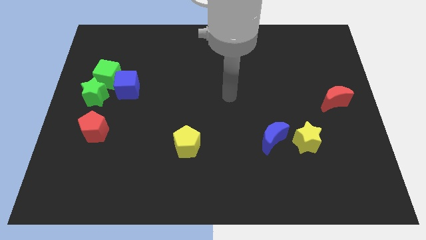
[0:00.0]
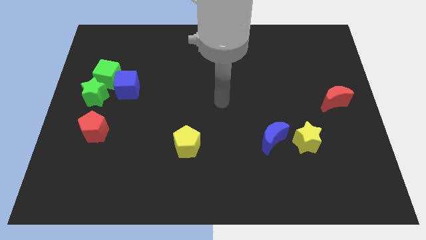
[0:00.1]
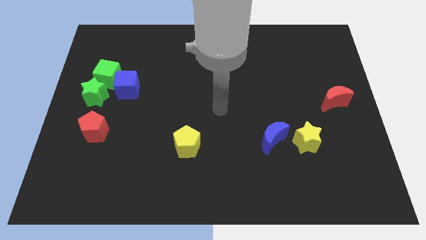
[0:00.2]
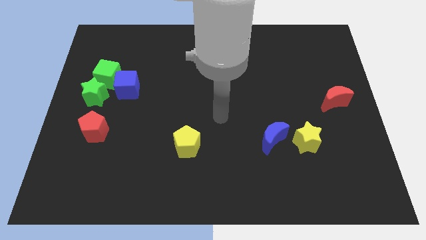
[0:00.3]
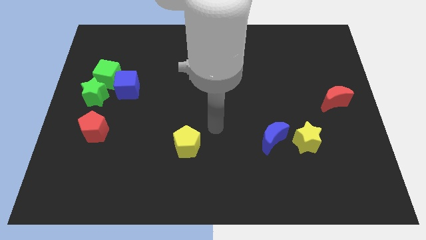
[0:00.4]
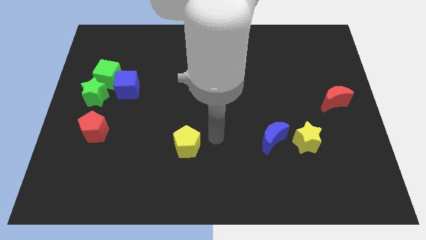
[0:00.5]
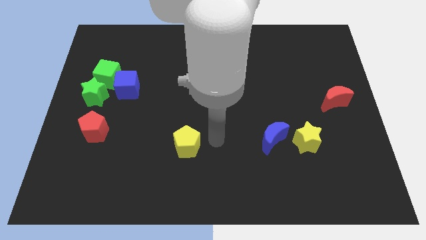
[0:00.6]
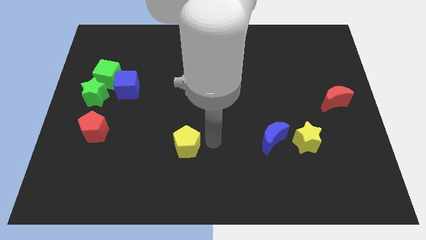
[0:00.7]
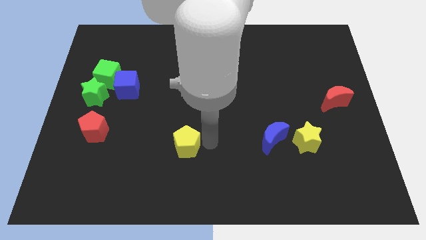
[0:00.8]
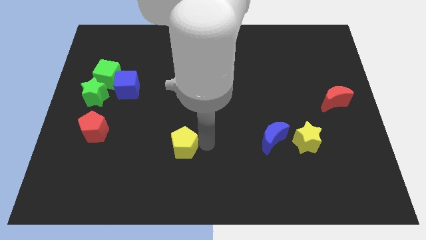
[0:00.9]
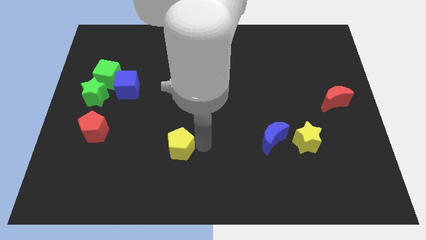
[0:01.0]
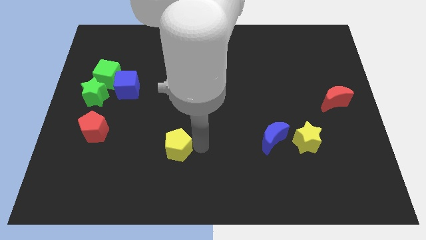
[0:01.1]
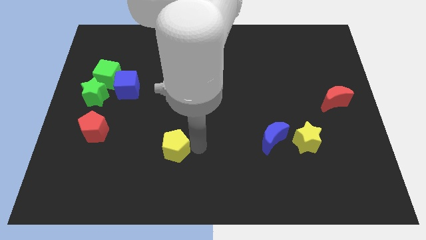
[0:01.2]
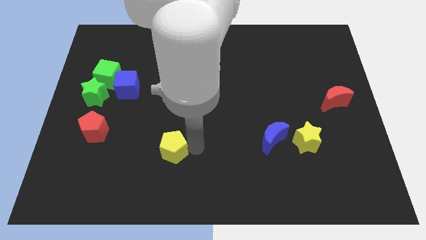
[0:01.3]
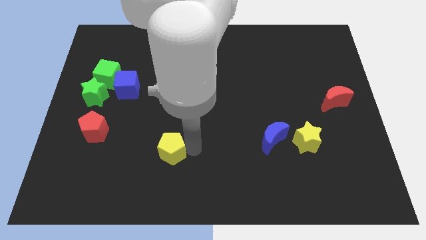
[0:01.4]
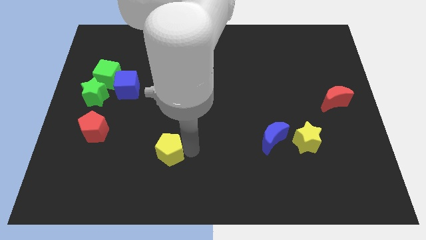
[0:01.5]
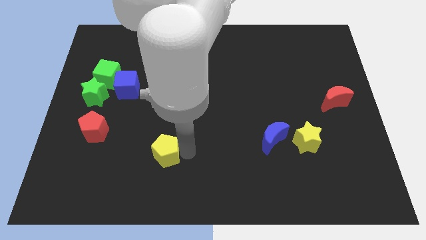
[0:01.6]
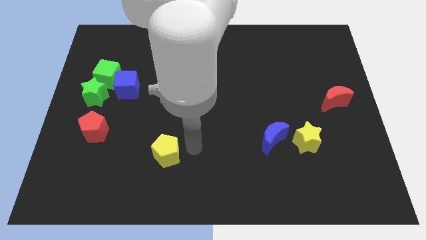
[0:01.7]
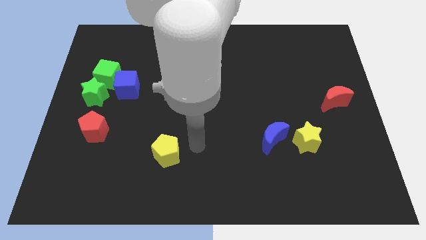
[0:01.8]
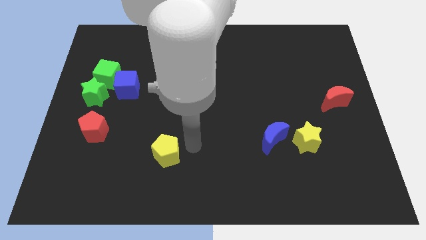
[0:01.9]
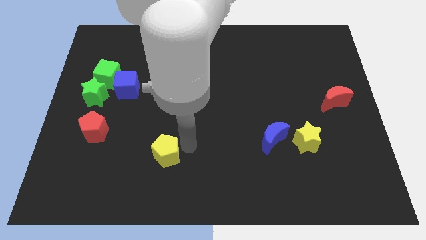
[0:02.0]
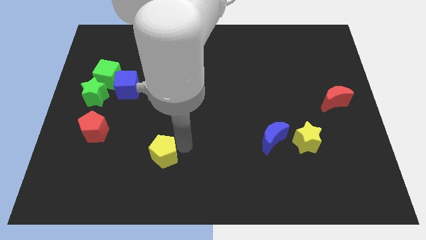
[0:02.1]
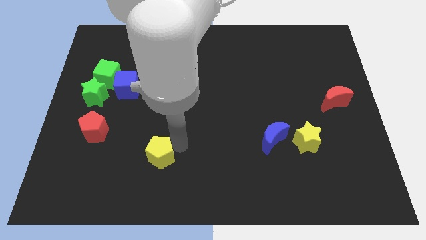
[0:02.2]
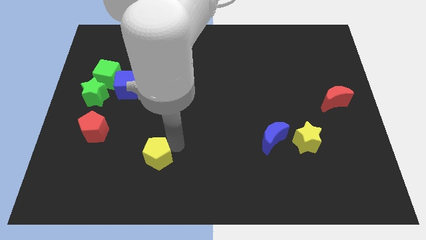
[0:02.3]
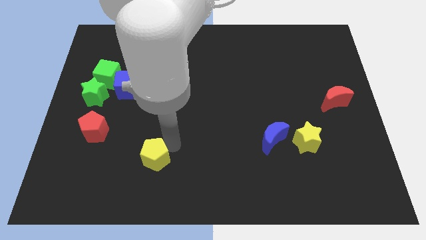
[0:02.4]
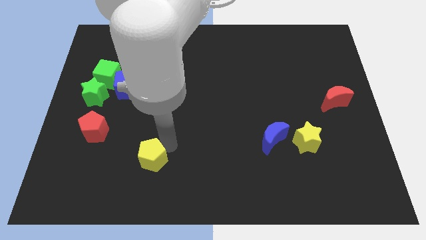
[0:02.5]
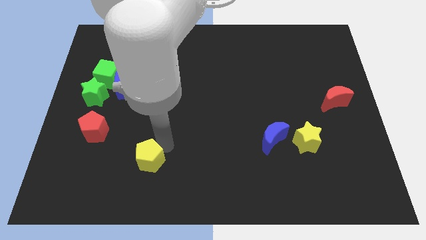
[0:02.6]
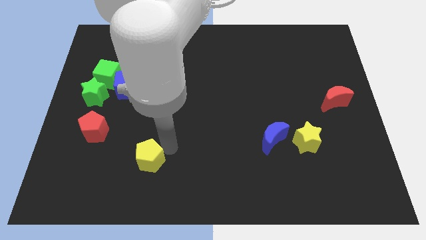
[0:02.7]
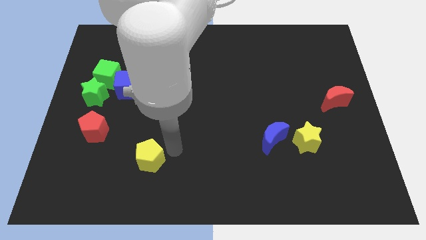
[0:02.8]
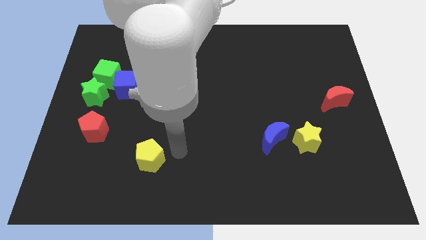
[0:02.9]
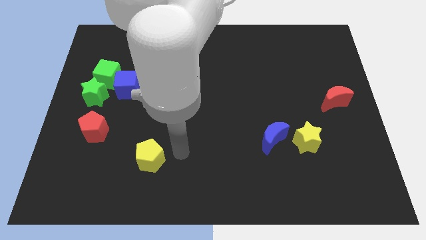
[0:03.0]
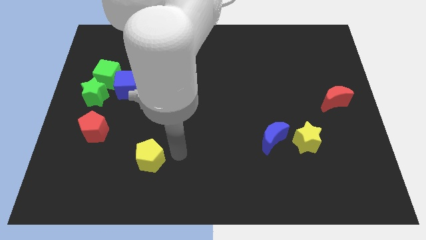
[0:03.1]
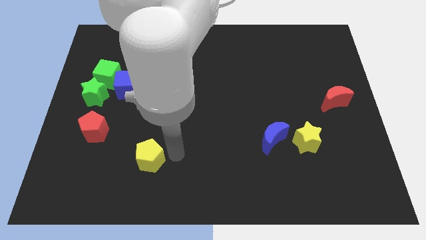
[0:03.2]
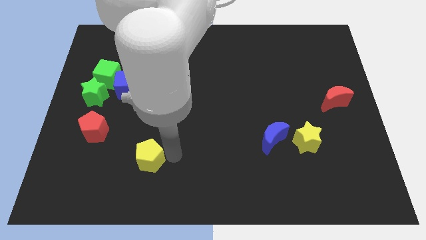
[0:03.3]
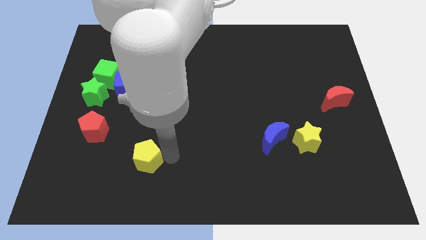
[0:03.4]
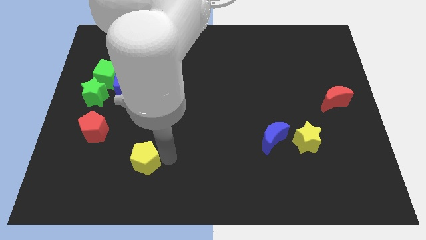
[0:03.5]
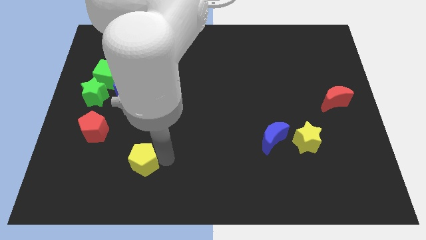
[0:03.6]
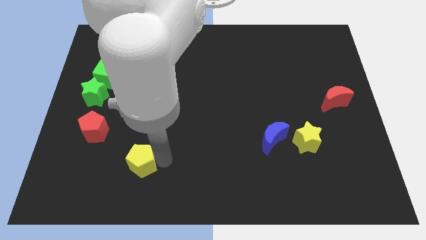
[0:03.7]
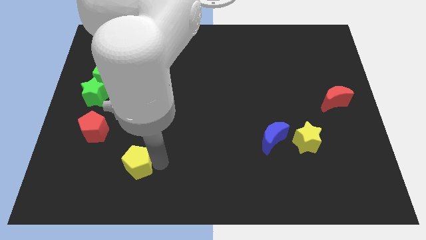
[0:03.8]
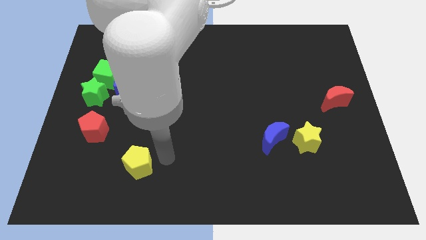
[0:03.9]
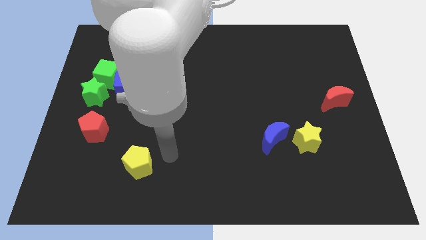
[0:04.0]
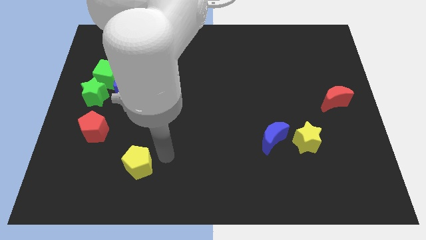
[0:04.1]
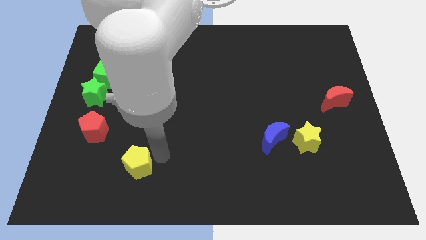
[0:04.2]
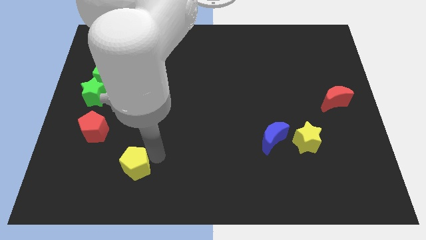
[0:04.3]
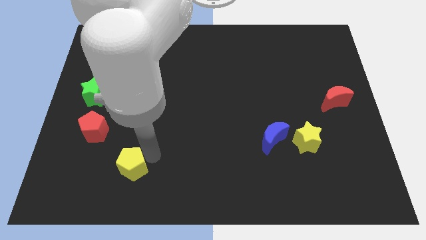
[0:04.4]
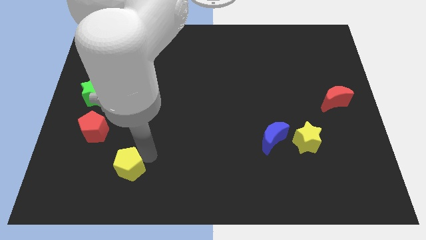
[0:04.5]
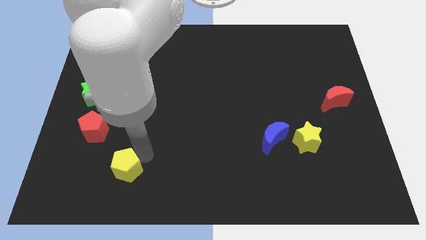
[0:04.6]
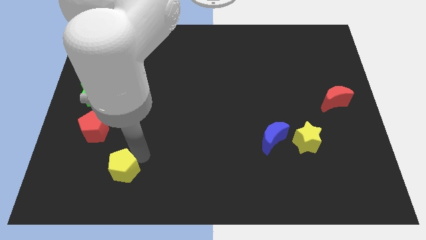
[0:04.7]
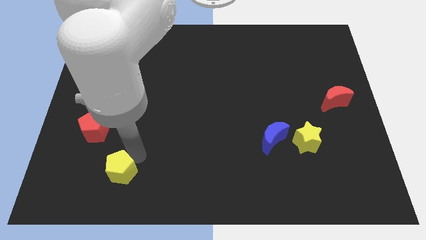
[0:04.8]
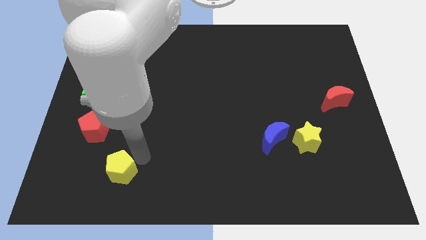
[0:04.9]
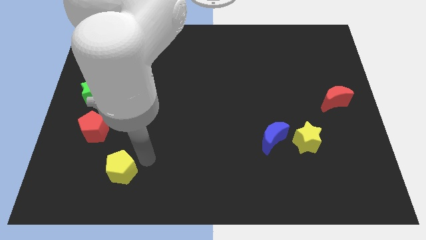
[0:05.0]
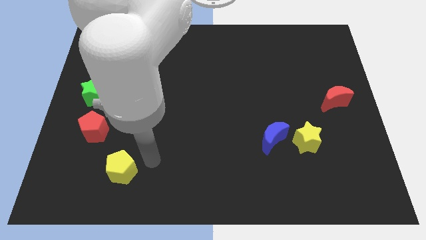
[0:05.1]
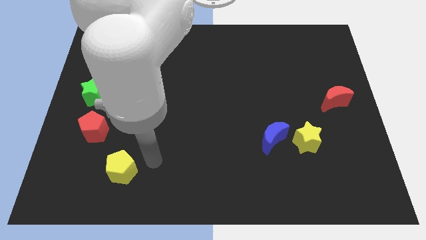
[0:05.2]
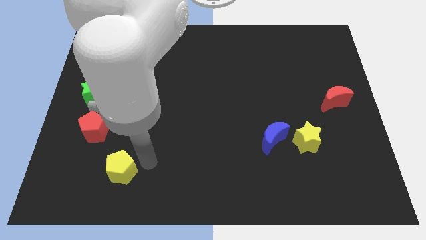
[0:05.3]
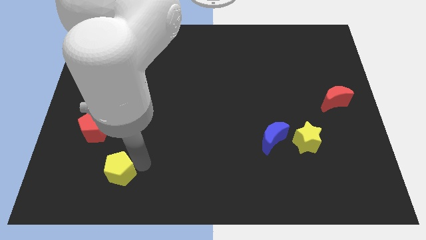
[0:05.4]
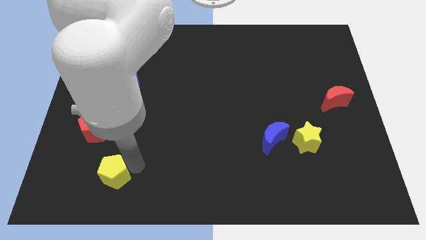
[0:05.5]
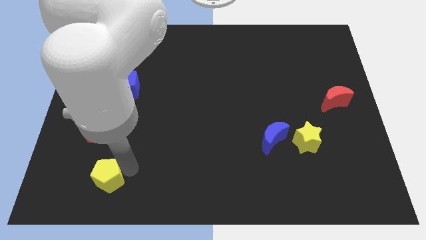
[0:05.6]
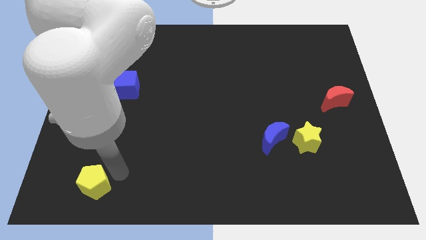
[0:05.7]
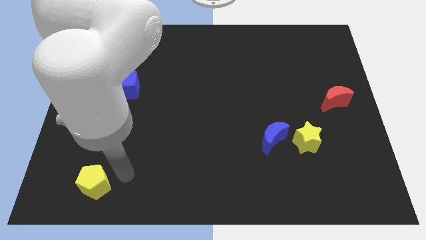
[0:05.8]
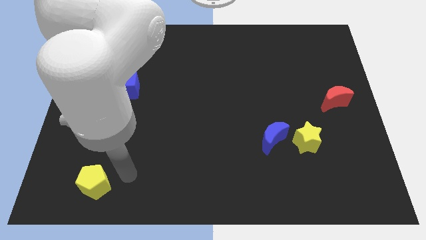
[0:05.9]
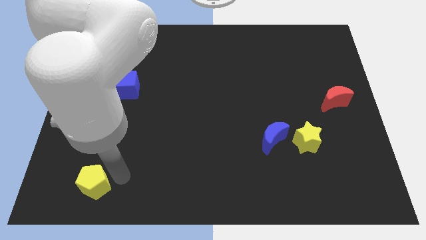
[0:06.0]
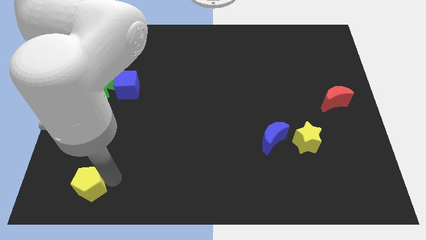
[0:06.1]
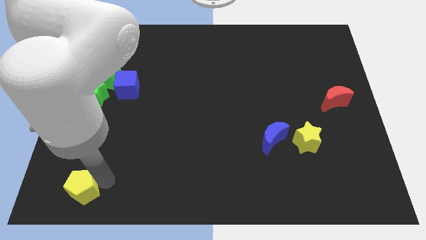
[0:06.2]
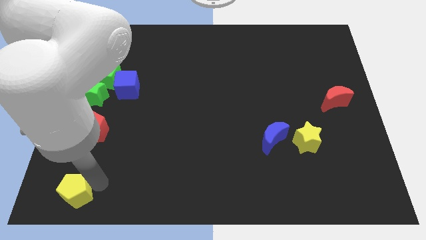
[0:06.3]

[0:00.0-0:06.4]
move the yellow pentagon to the bottom left
